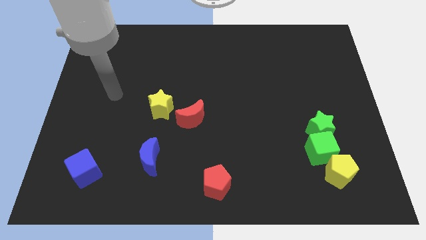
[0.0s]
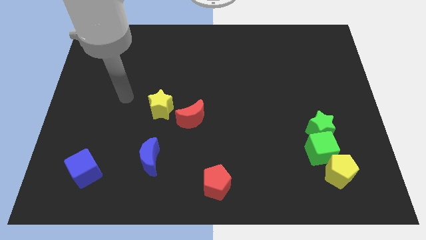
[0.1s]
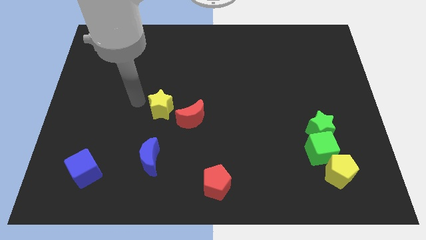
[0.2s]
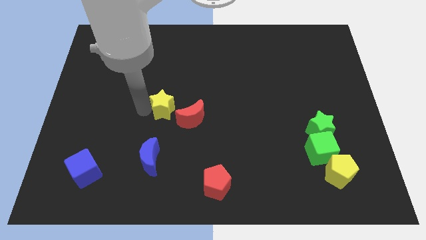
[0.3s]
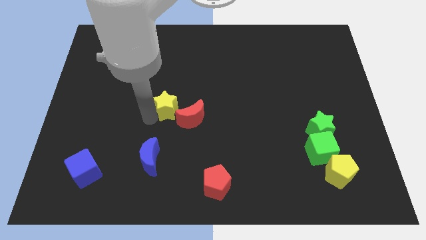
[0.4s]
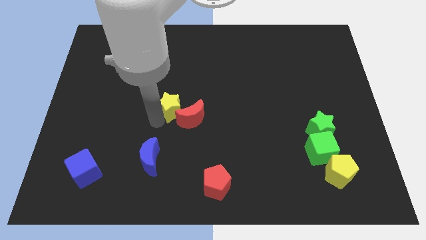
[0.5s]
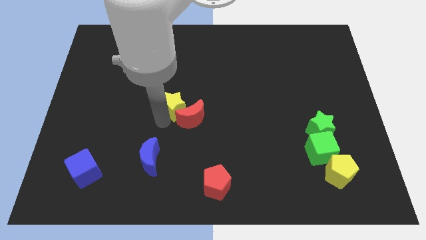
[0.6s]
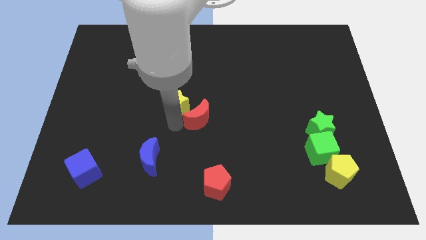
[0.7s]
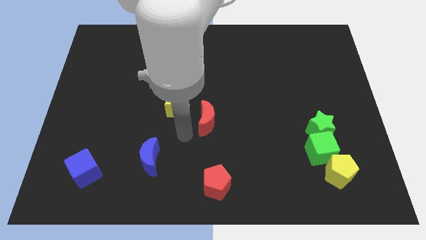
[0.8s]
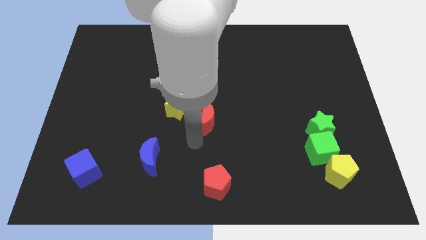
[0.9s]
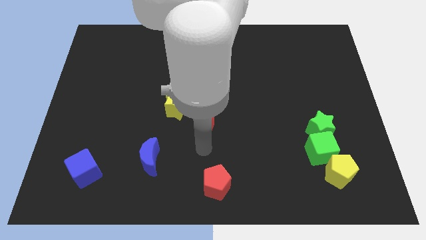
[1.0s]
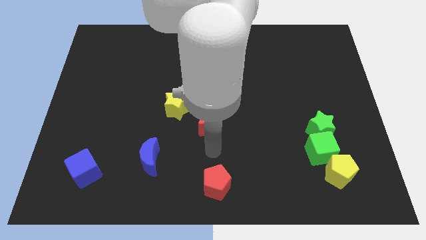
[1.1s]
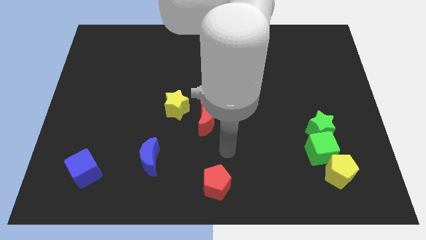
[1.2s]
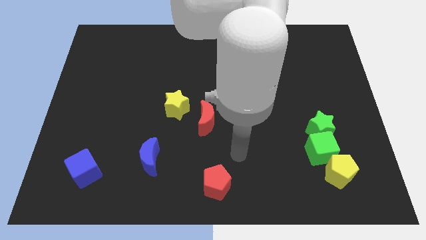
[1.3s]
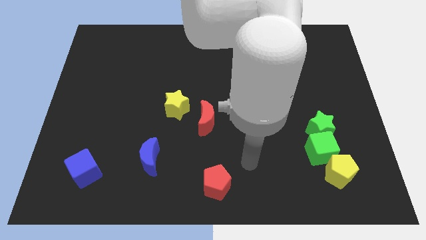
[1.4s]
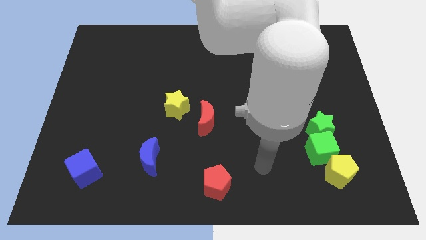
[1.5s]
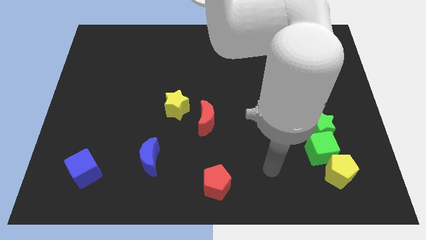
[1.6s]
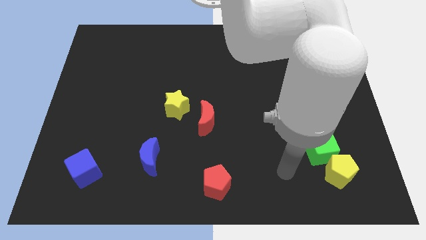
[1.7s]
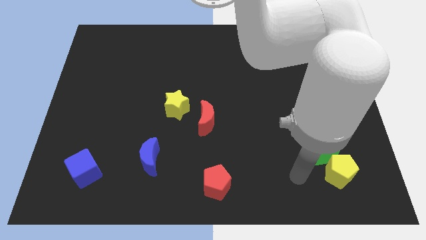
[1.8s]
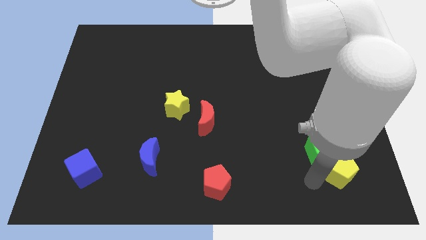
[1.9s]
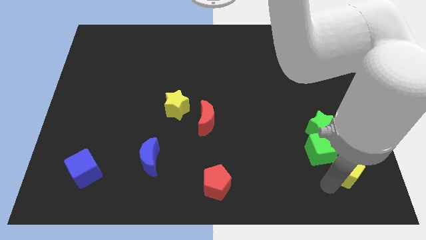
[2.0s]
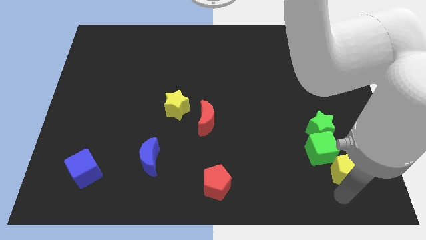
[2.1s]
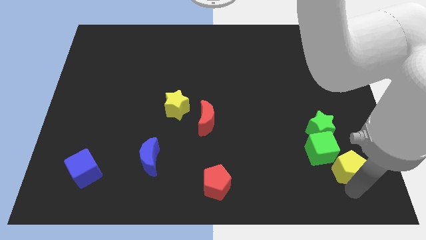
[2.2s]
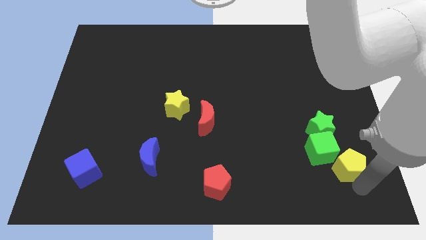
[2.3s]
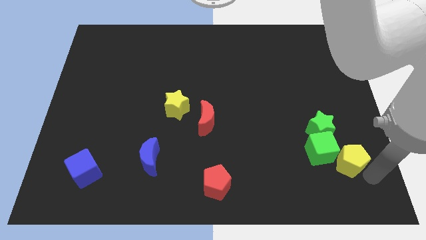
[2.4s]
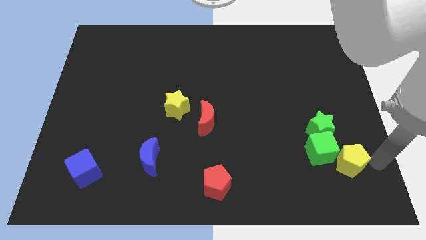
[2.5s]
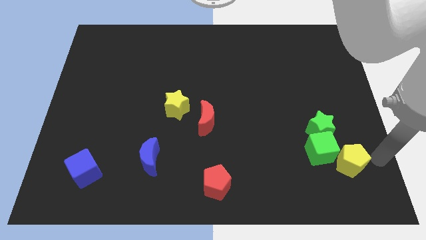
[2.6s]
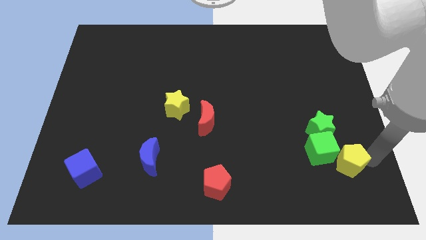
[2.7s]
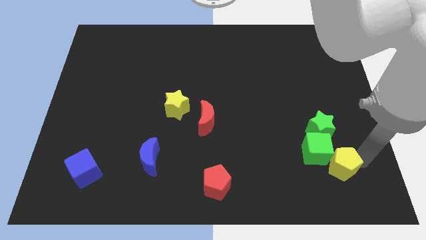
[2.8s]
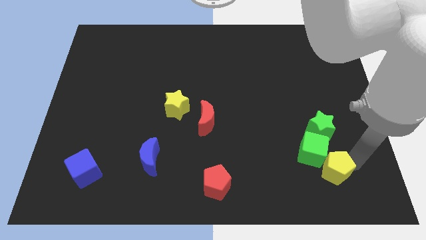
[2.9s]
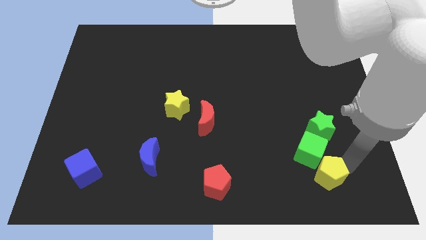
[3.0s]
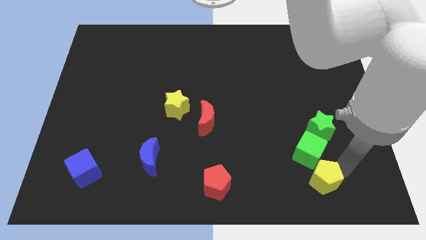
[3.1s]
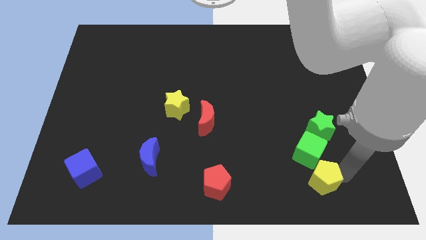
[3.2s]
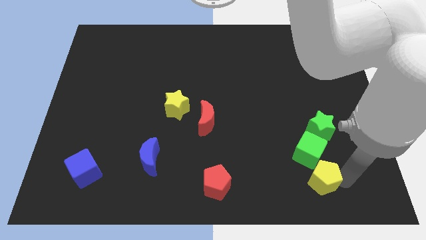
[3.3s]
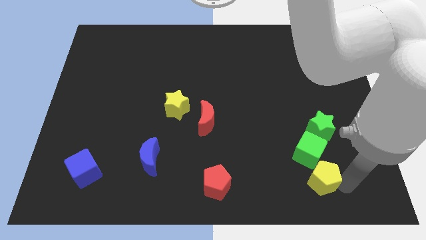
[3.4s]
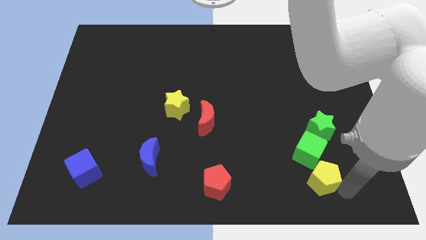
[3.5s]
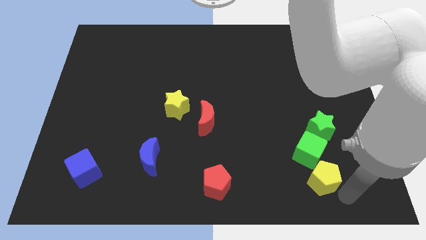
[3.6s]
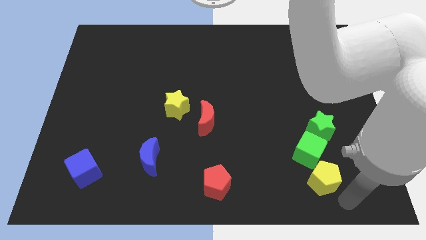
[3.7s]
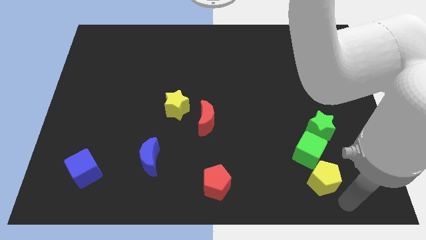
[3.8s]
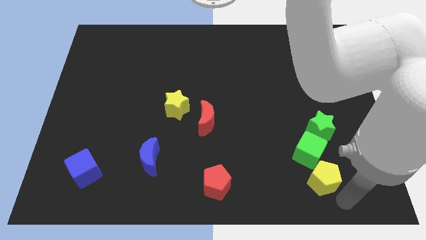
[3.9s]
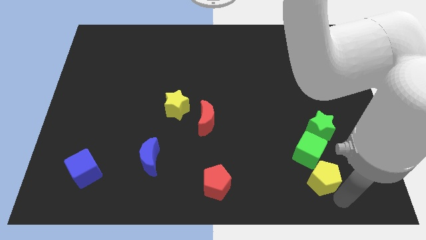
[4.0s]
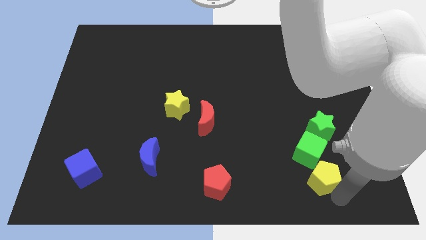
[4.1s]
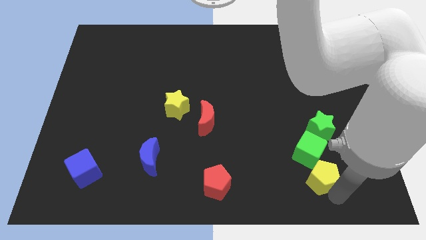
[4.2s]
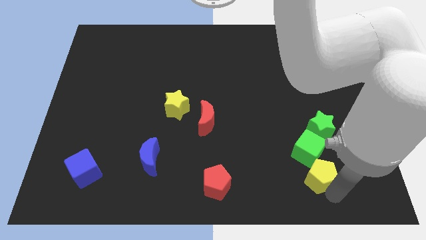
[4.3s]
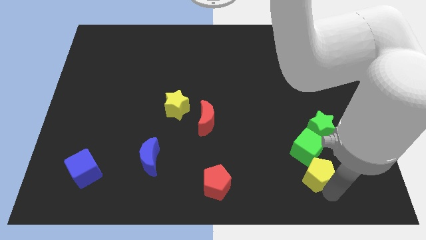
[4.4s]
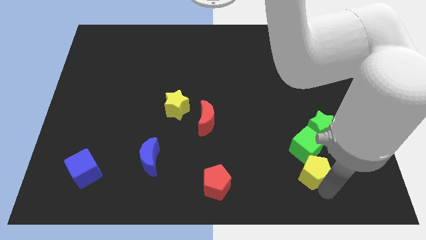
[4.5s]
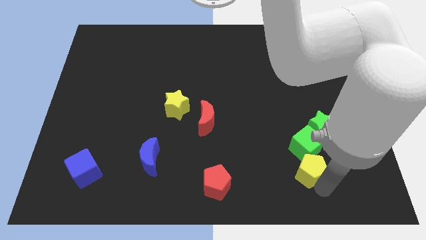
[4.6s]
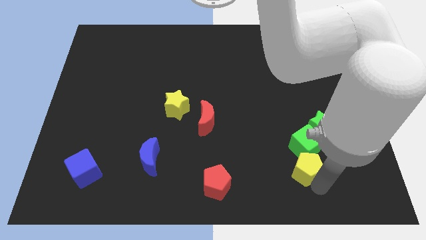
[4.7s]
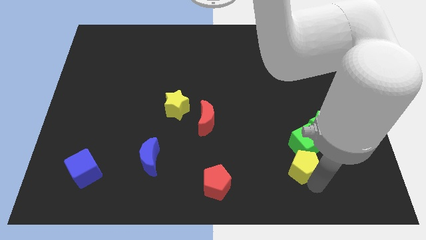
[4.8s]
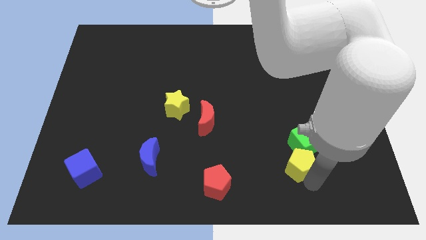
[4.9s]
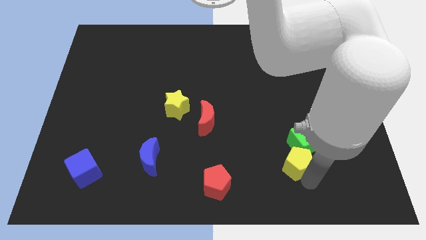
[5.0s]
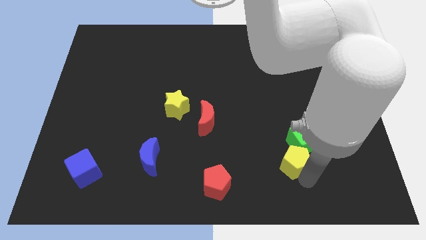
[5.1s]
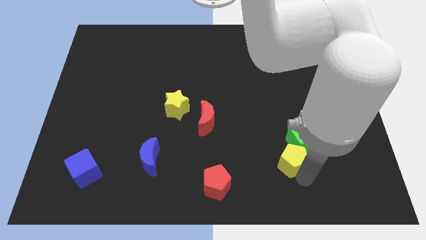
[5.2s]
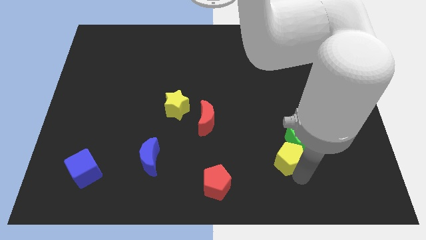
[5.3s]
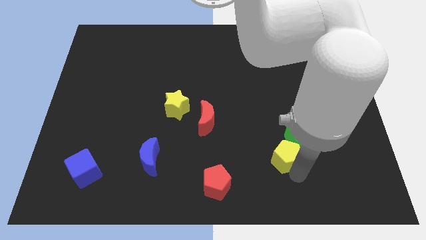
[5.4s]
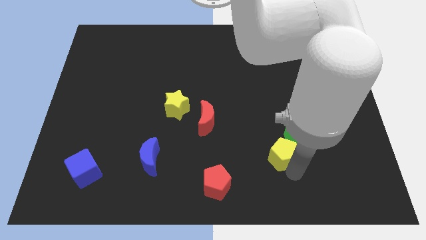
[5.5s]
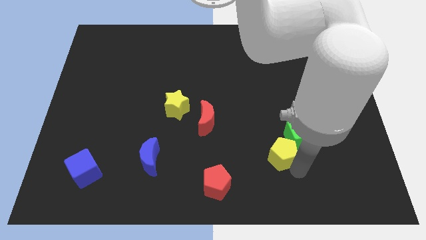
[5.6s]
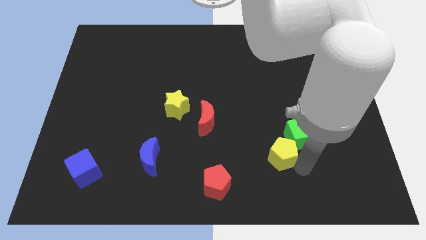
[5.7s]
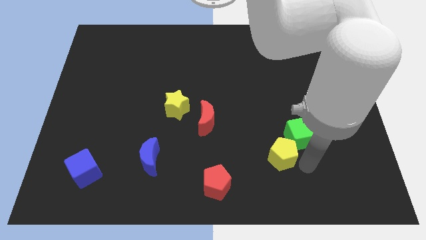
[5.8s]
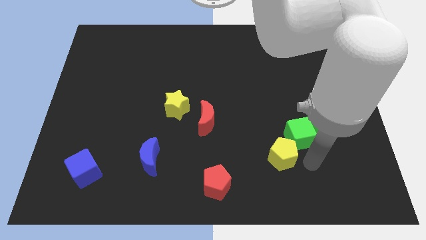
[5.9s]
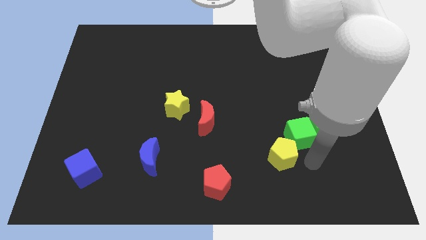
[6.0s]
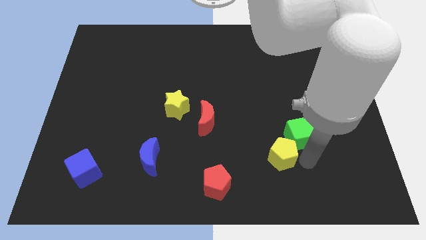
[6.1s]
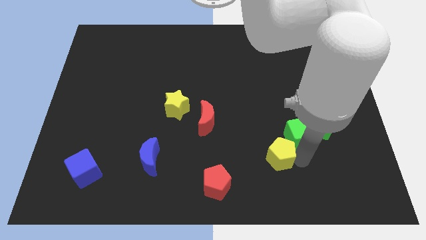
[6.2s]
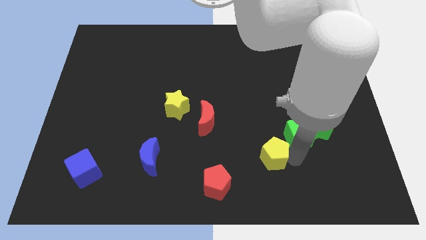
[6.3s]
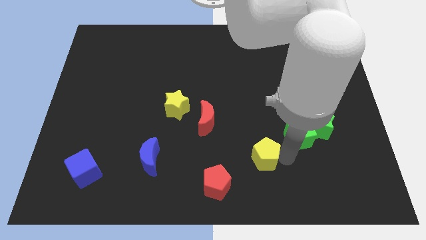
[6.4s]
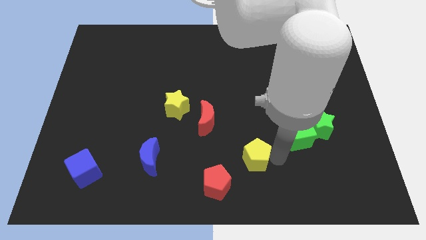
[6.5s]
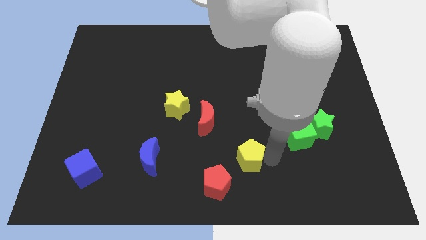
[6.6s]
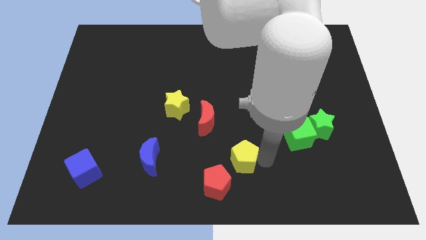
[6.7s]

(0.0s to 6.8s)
slide the yellow pentagon to the bottom right side of the red moon
